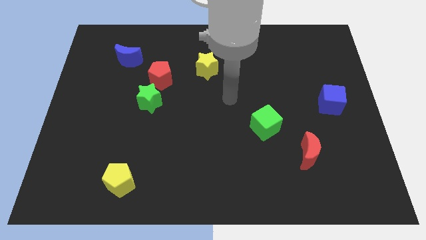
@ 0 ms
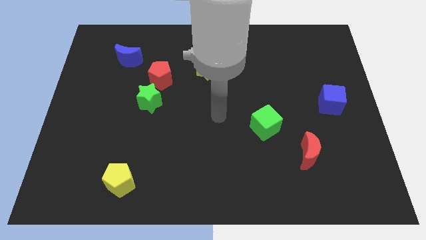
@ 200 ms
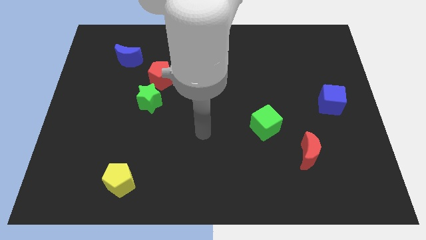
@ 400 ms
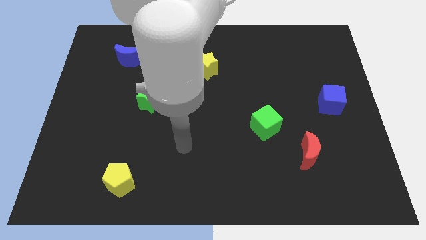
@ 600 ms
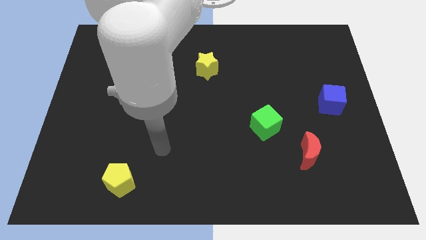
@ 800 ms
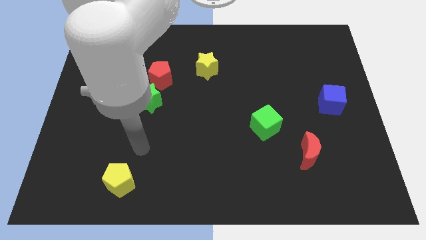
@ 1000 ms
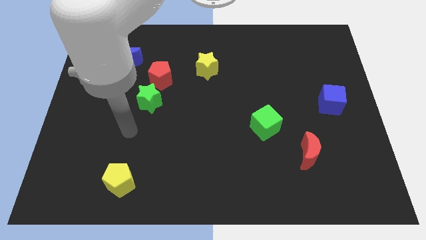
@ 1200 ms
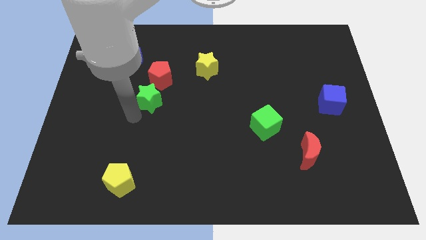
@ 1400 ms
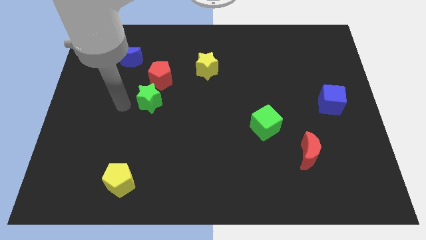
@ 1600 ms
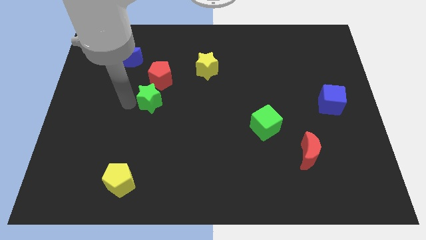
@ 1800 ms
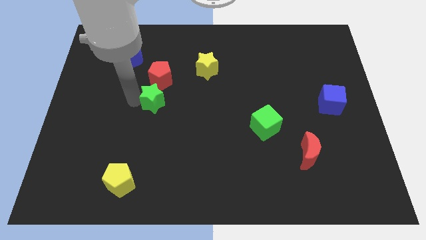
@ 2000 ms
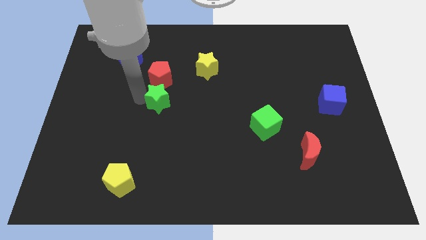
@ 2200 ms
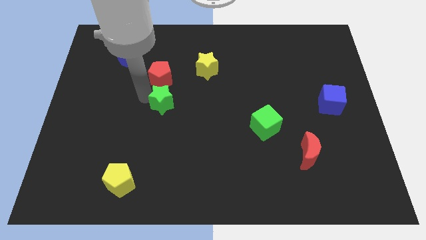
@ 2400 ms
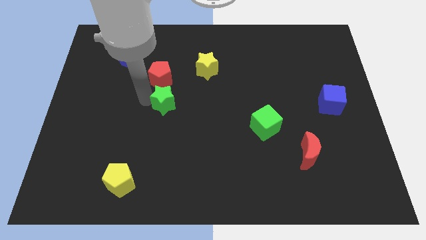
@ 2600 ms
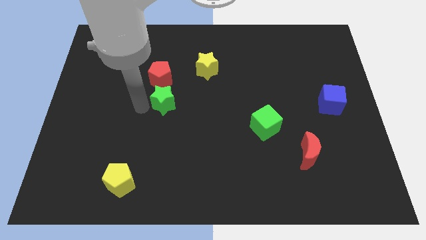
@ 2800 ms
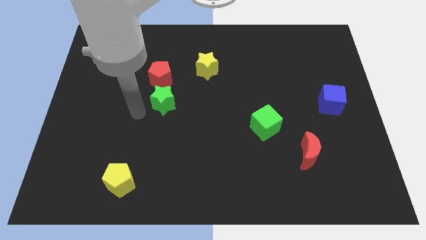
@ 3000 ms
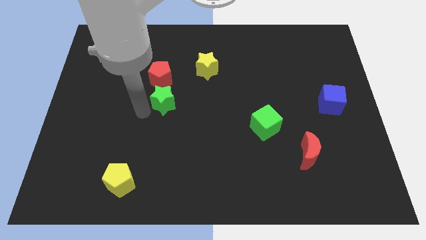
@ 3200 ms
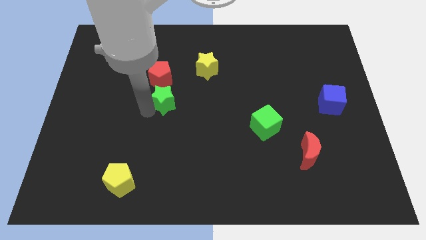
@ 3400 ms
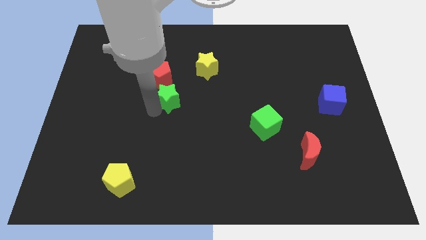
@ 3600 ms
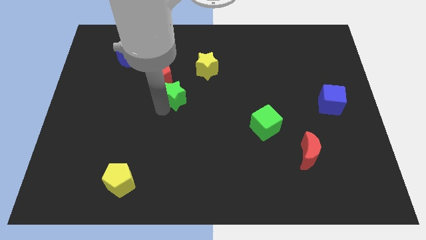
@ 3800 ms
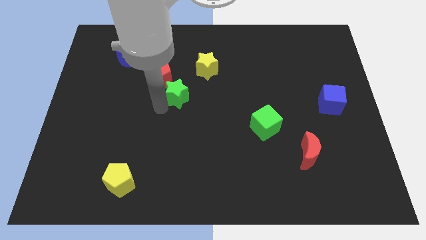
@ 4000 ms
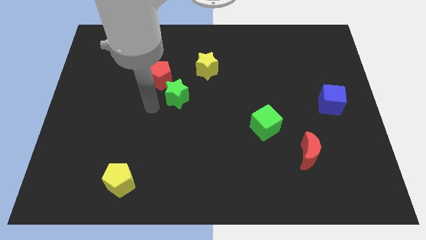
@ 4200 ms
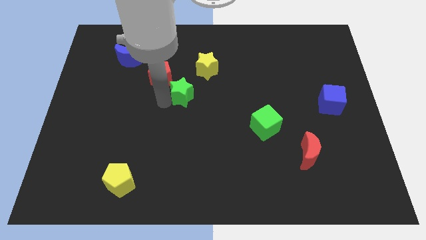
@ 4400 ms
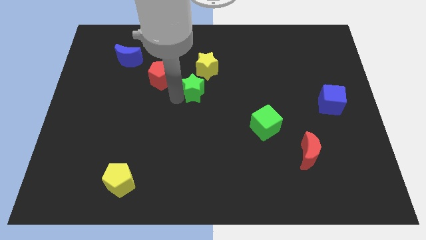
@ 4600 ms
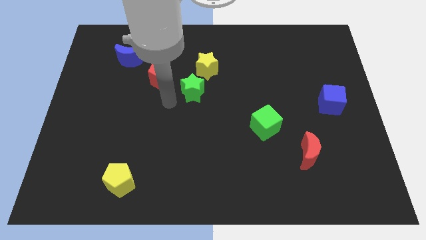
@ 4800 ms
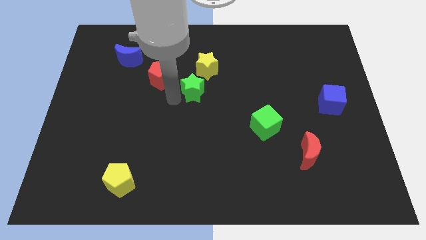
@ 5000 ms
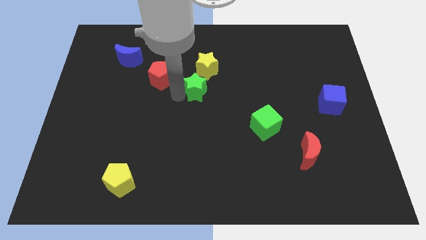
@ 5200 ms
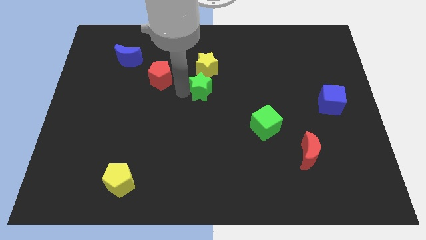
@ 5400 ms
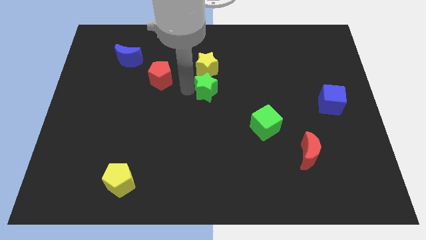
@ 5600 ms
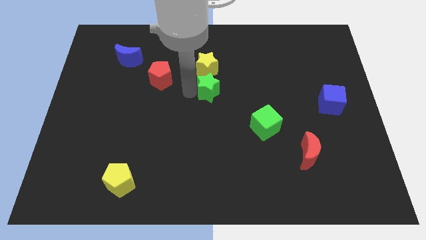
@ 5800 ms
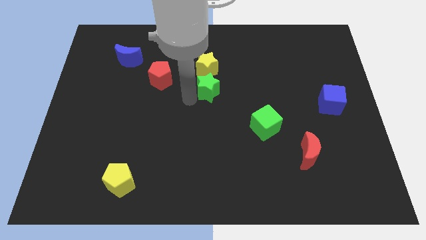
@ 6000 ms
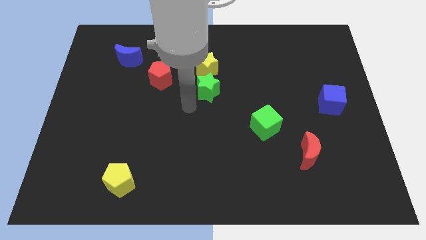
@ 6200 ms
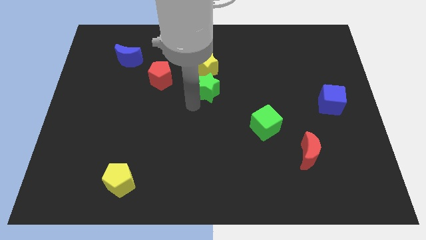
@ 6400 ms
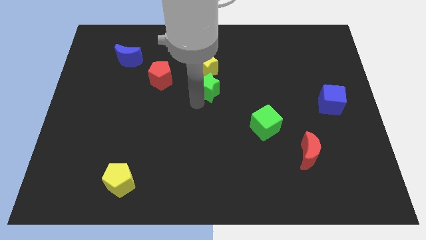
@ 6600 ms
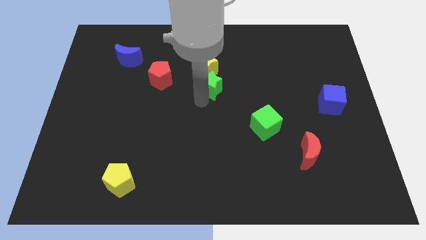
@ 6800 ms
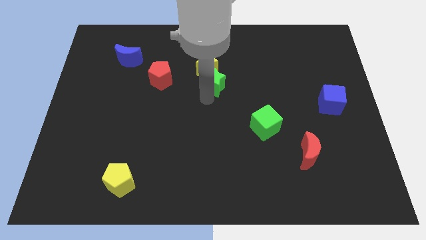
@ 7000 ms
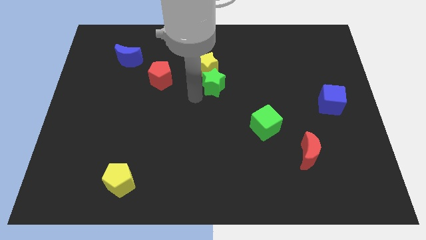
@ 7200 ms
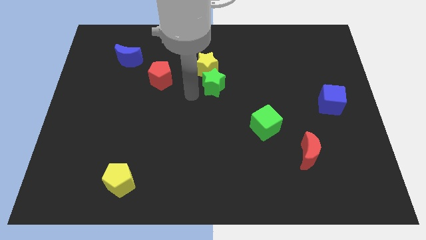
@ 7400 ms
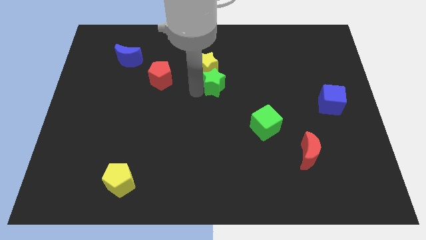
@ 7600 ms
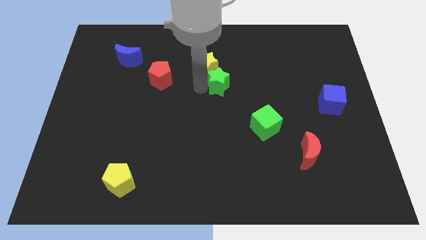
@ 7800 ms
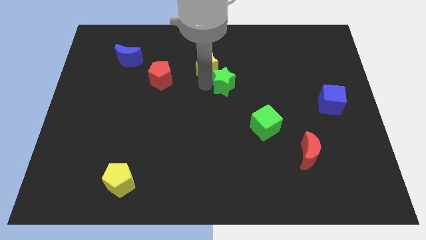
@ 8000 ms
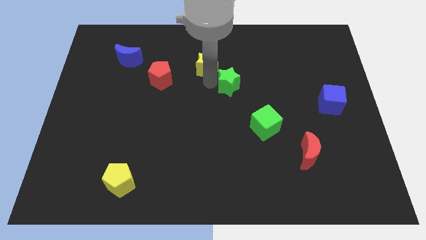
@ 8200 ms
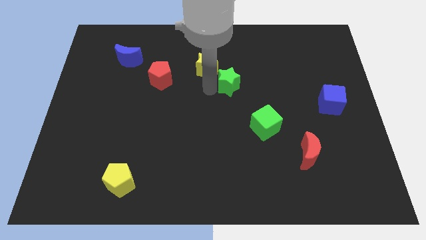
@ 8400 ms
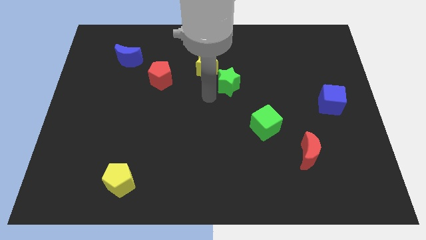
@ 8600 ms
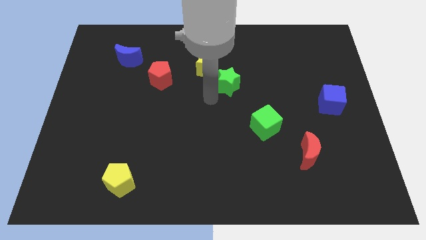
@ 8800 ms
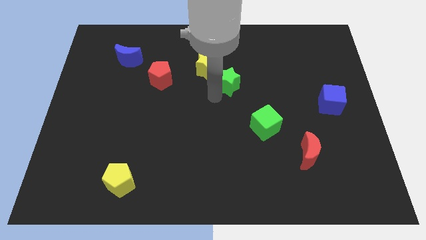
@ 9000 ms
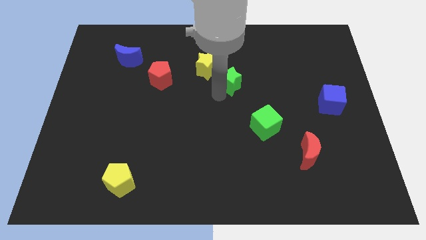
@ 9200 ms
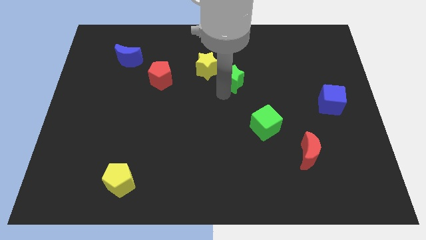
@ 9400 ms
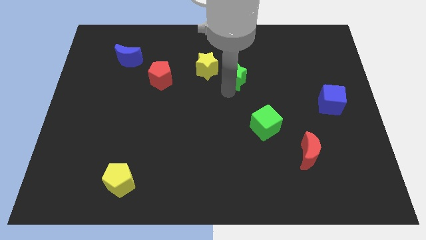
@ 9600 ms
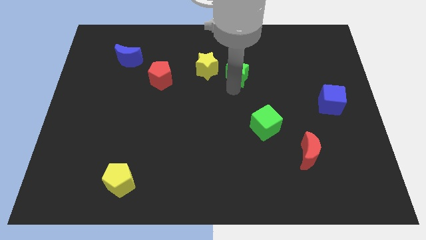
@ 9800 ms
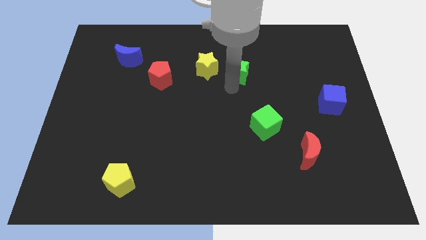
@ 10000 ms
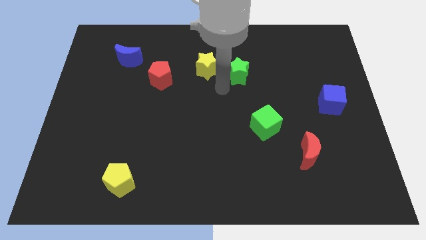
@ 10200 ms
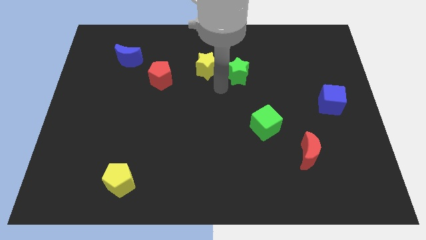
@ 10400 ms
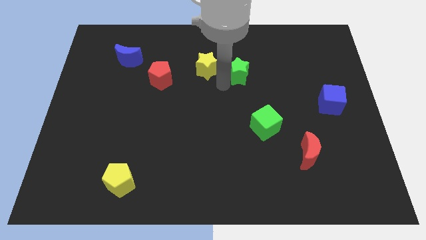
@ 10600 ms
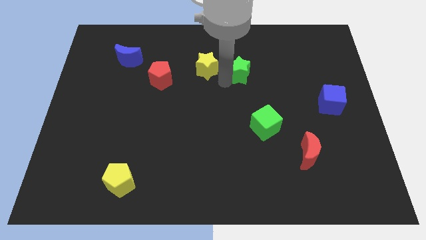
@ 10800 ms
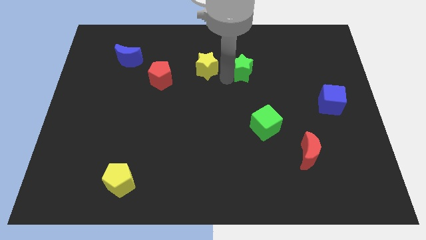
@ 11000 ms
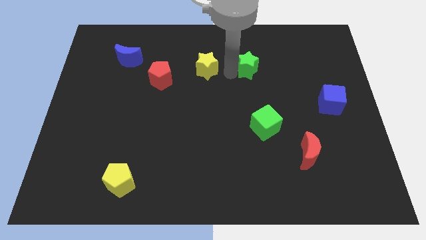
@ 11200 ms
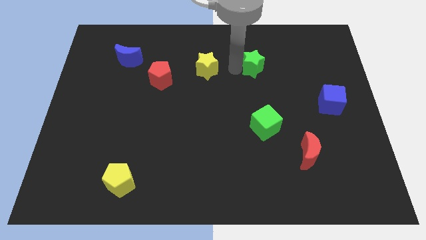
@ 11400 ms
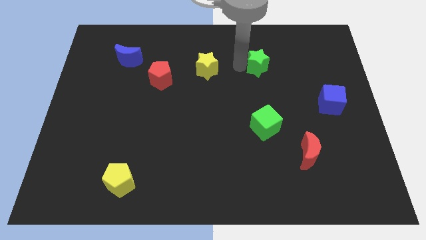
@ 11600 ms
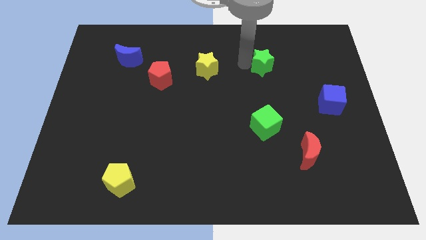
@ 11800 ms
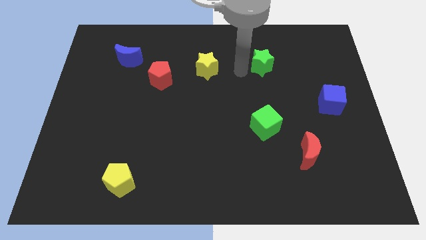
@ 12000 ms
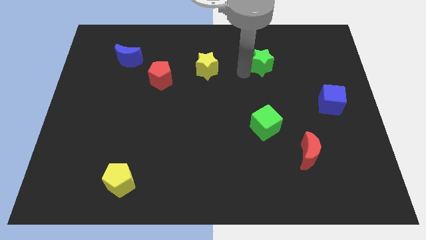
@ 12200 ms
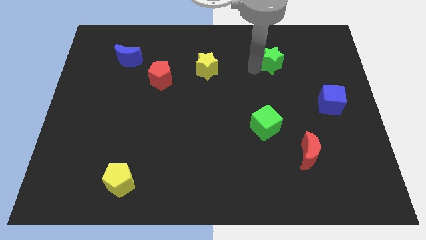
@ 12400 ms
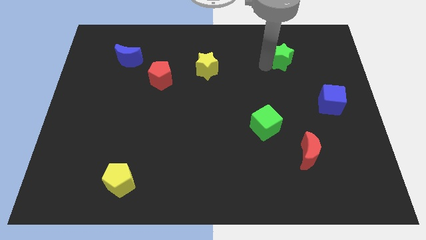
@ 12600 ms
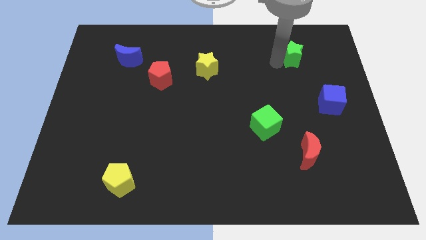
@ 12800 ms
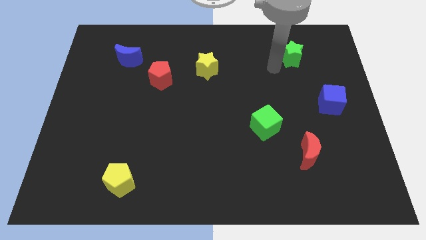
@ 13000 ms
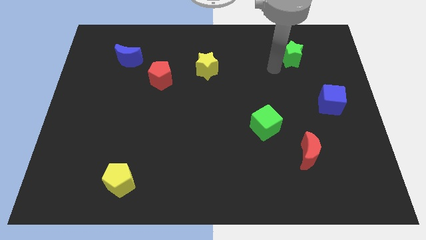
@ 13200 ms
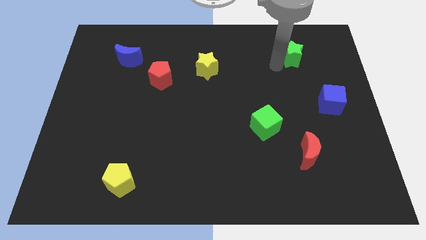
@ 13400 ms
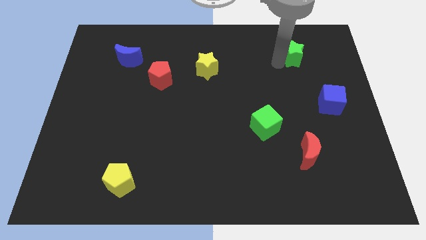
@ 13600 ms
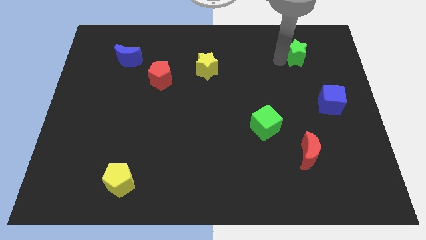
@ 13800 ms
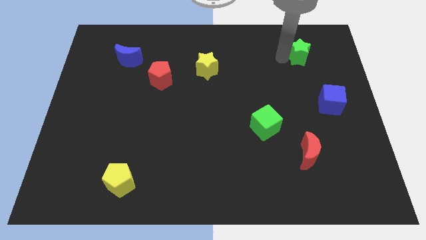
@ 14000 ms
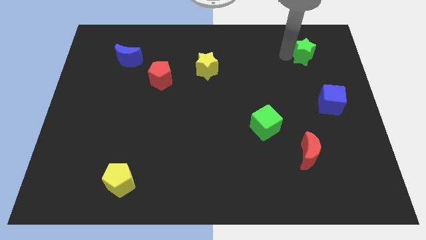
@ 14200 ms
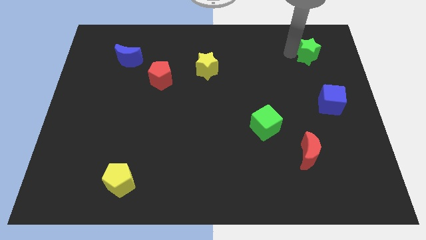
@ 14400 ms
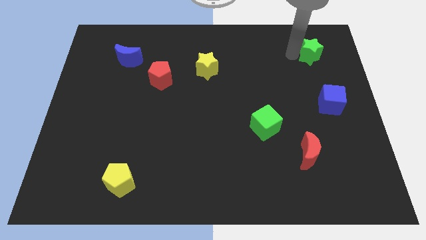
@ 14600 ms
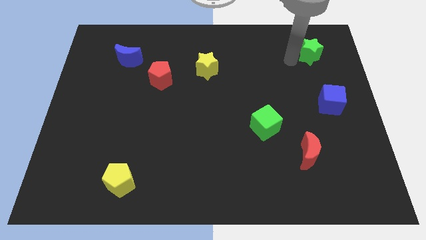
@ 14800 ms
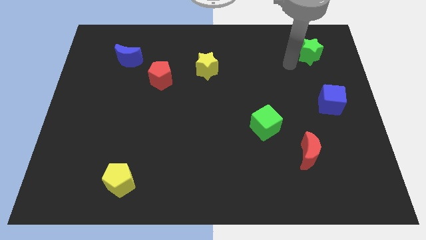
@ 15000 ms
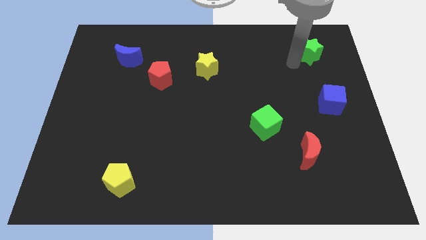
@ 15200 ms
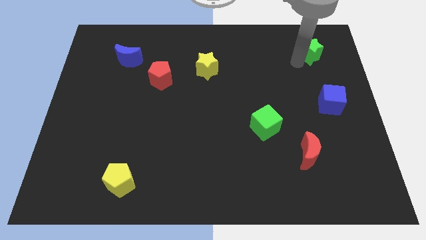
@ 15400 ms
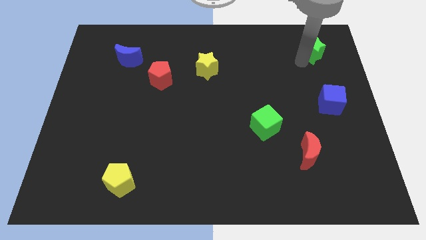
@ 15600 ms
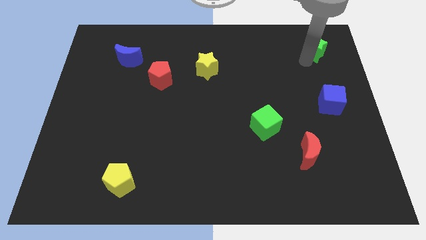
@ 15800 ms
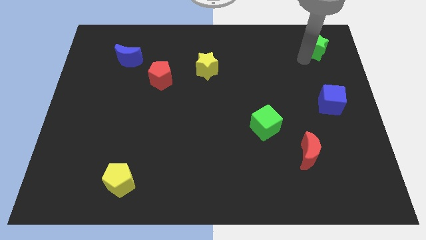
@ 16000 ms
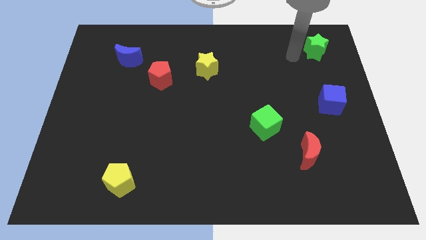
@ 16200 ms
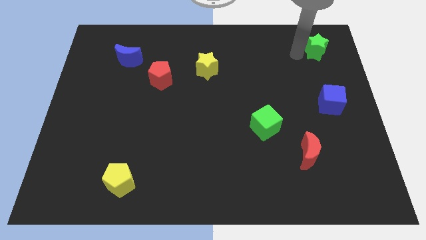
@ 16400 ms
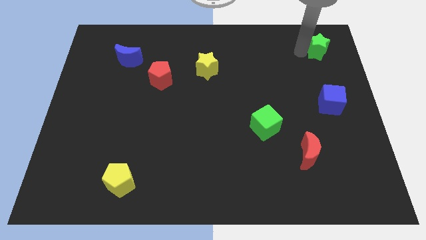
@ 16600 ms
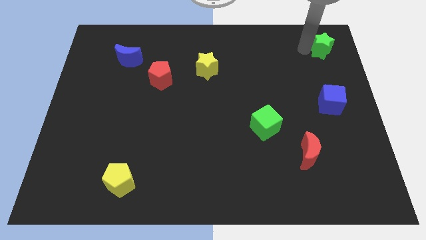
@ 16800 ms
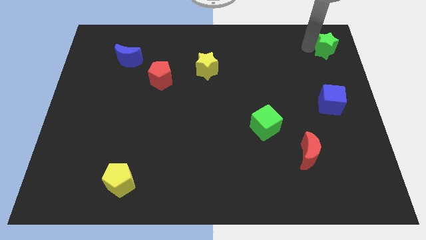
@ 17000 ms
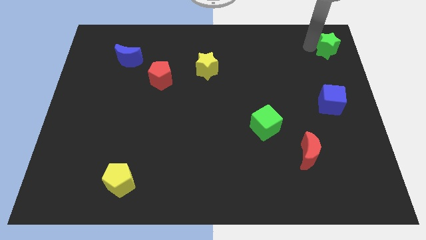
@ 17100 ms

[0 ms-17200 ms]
push the green star to the top right
